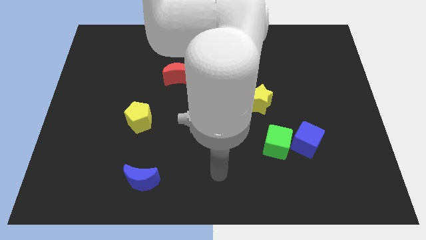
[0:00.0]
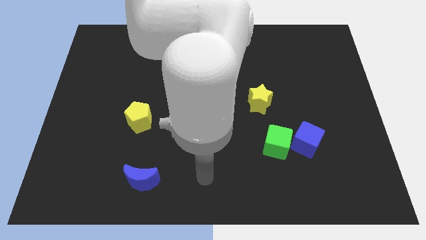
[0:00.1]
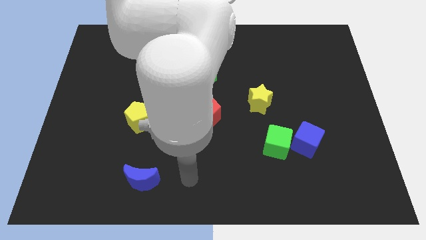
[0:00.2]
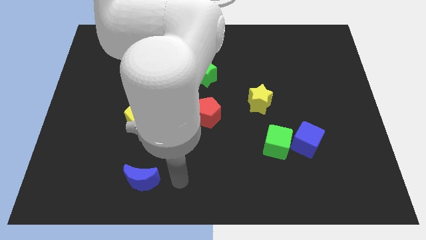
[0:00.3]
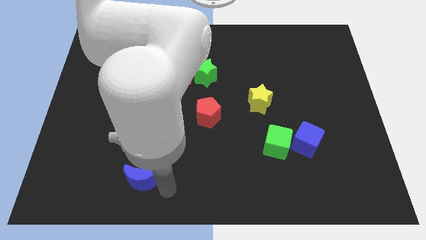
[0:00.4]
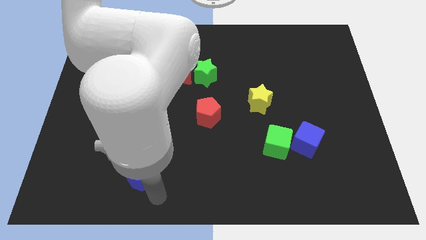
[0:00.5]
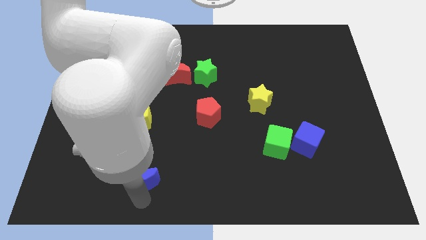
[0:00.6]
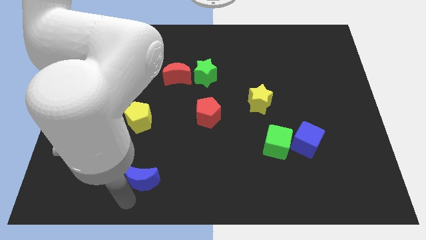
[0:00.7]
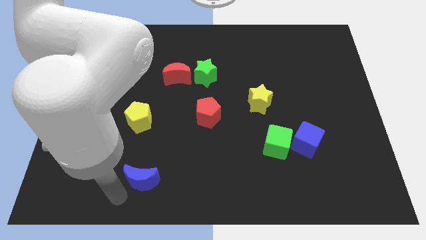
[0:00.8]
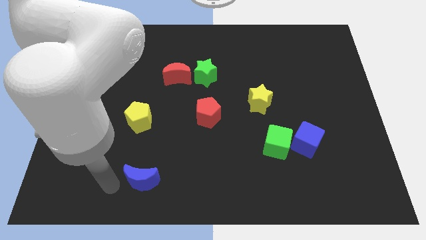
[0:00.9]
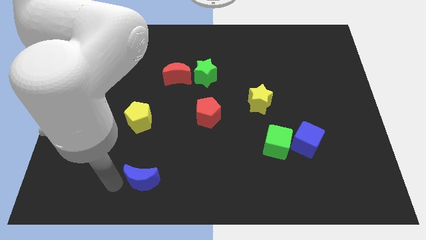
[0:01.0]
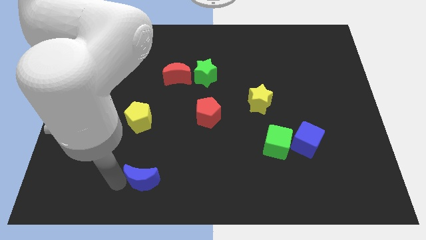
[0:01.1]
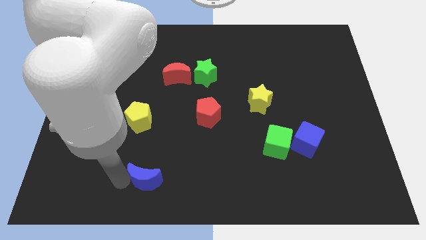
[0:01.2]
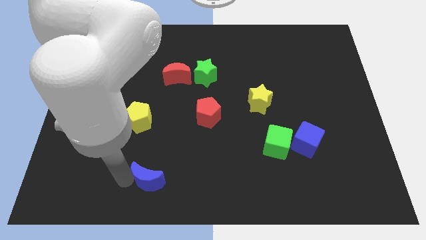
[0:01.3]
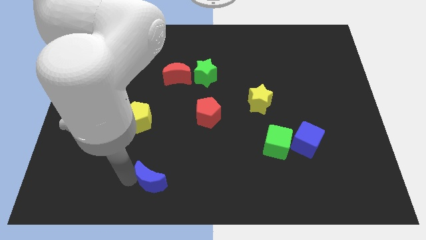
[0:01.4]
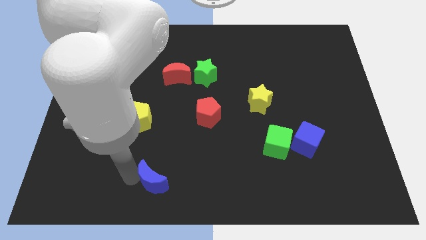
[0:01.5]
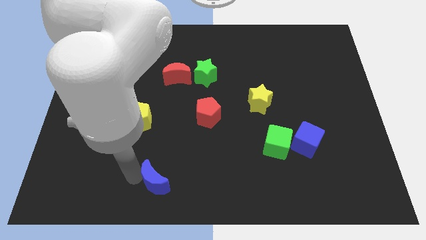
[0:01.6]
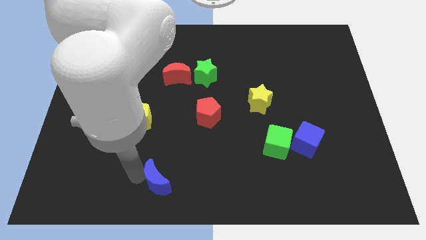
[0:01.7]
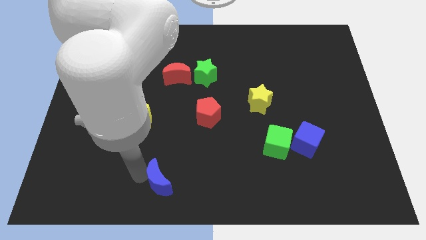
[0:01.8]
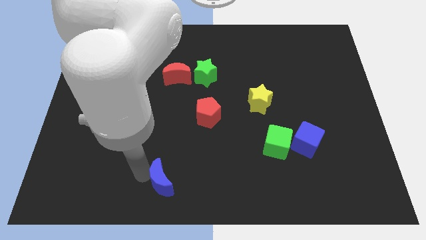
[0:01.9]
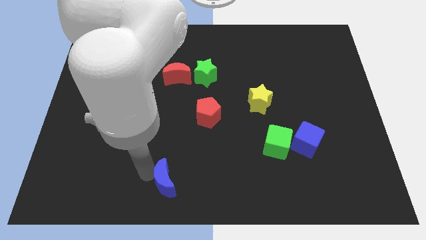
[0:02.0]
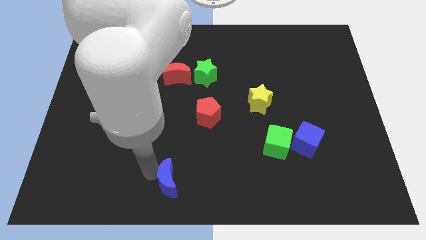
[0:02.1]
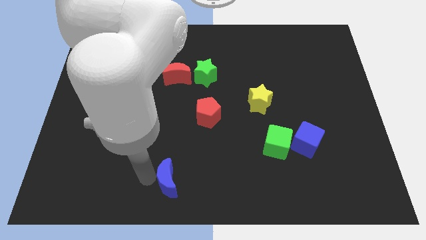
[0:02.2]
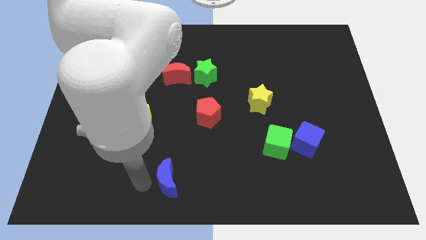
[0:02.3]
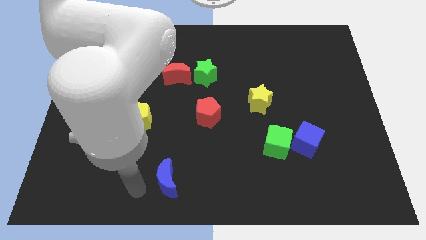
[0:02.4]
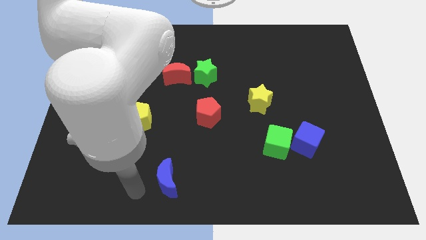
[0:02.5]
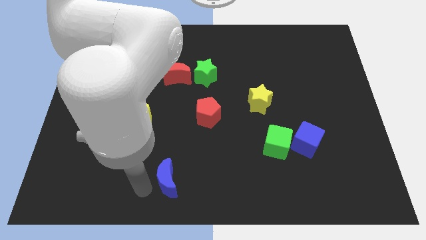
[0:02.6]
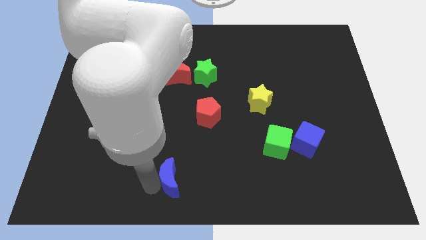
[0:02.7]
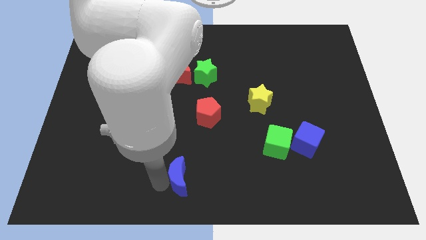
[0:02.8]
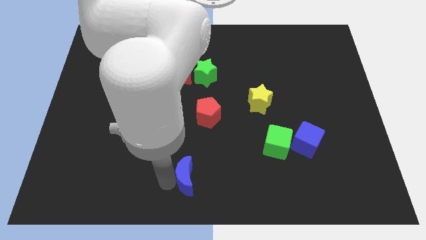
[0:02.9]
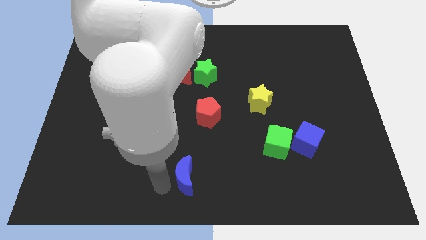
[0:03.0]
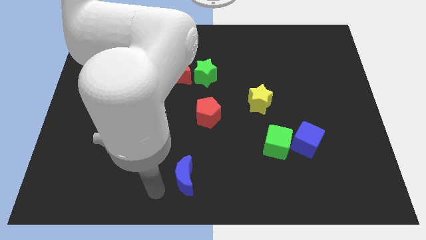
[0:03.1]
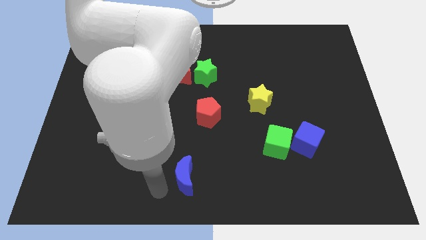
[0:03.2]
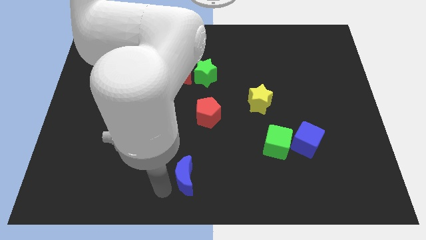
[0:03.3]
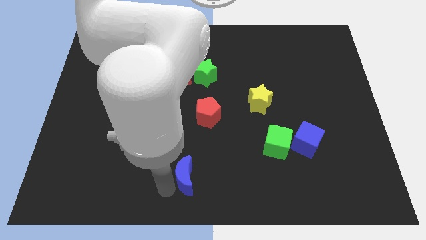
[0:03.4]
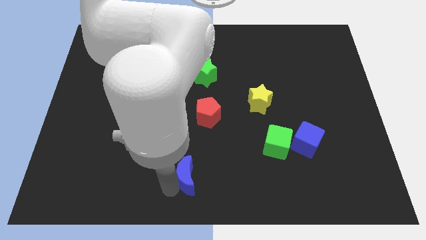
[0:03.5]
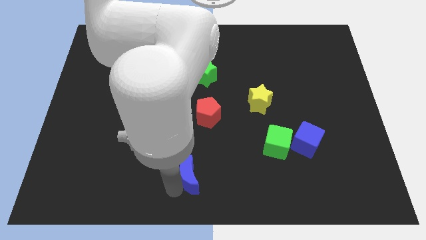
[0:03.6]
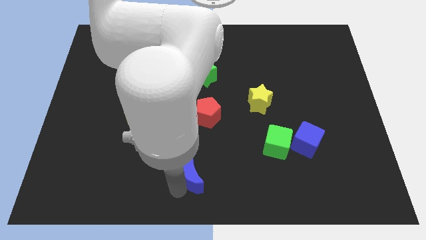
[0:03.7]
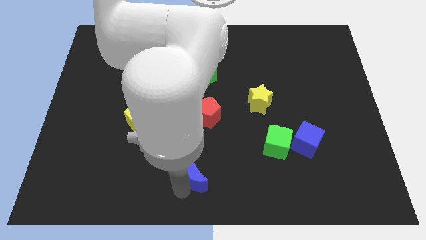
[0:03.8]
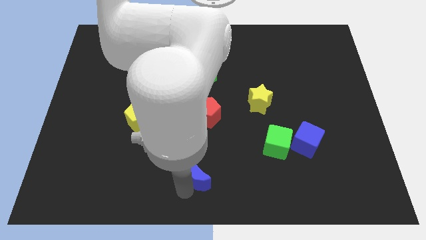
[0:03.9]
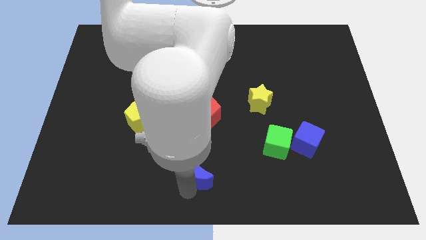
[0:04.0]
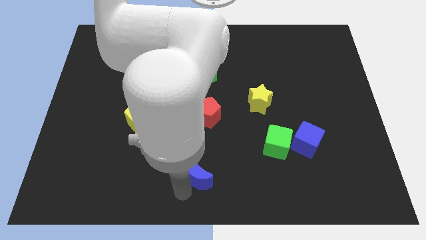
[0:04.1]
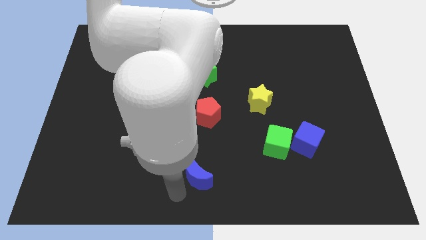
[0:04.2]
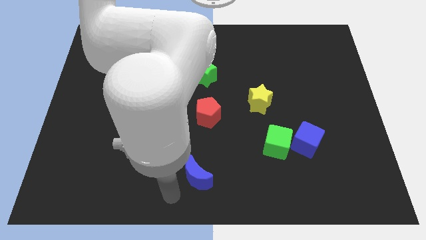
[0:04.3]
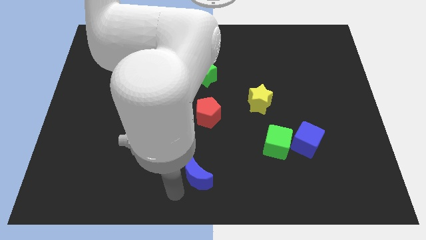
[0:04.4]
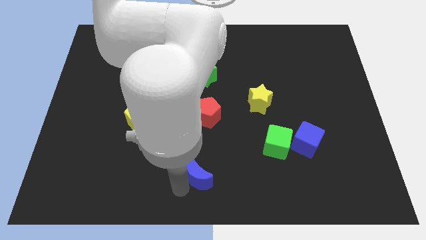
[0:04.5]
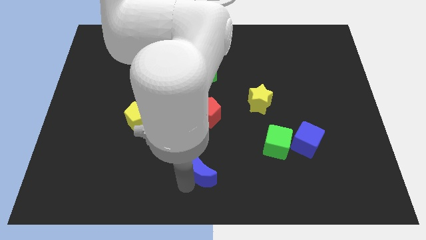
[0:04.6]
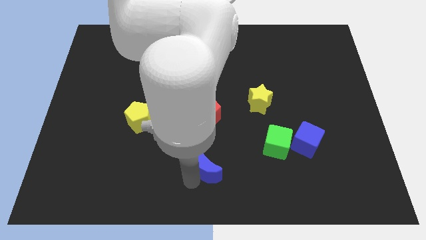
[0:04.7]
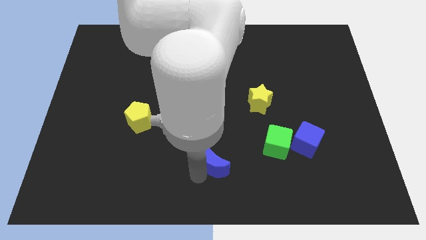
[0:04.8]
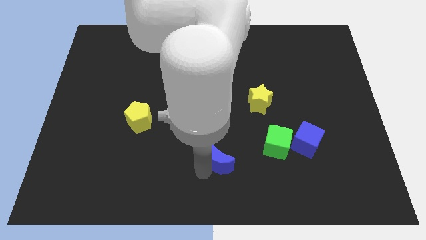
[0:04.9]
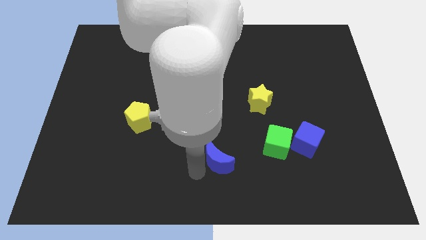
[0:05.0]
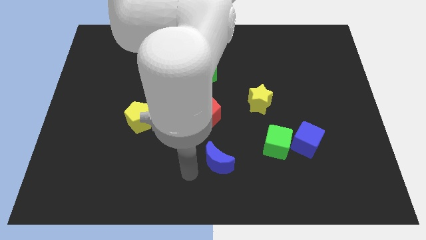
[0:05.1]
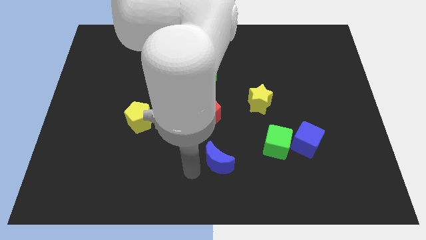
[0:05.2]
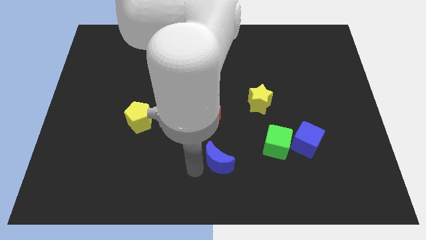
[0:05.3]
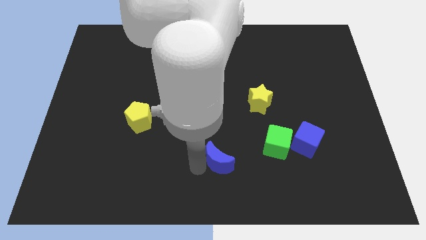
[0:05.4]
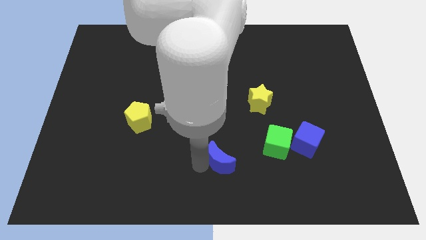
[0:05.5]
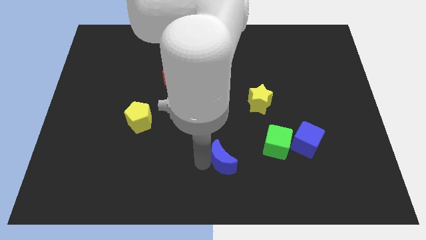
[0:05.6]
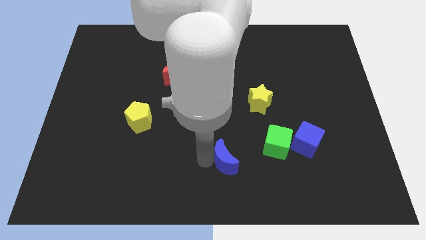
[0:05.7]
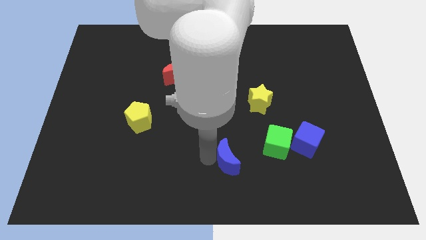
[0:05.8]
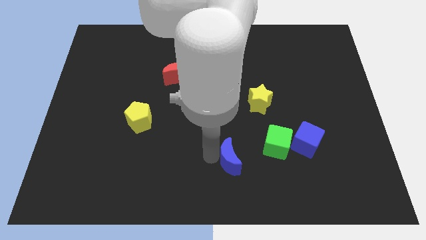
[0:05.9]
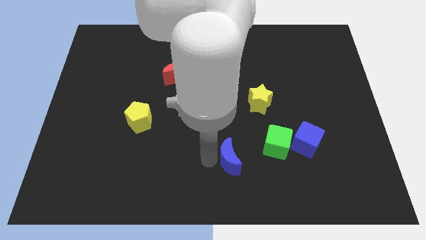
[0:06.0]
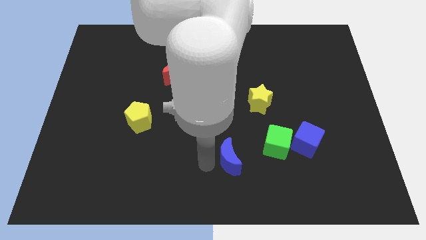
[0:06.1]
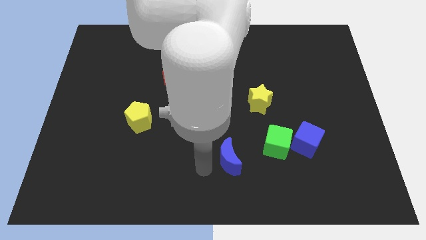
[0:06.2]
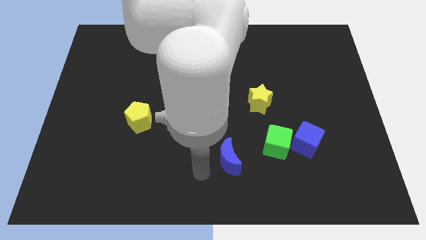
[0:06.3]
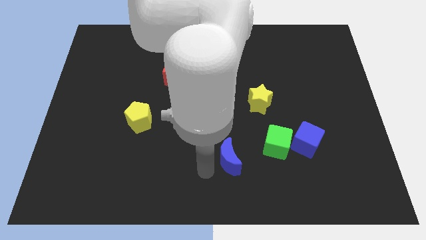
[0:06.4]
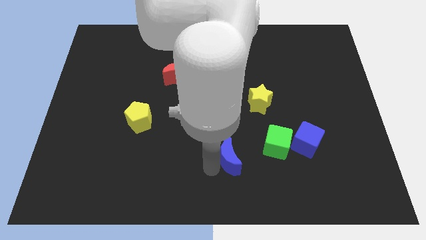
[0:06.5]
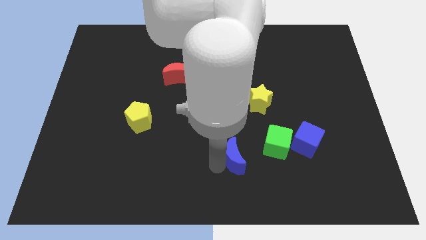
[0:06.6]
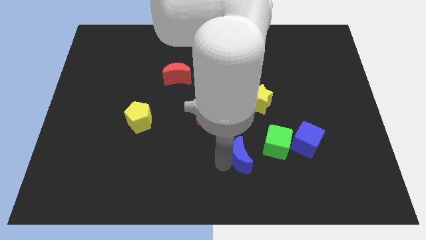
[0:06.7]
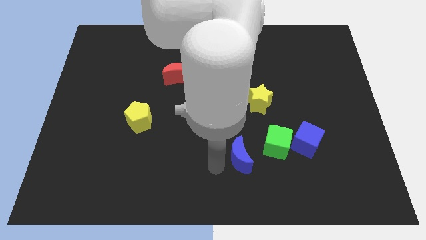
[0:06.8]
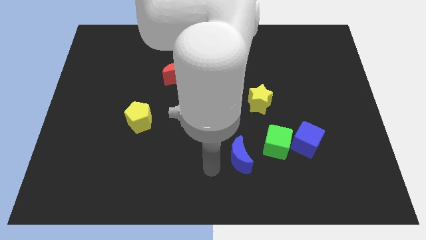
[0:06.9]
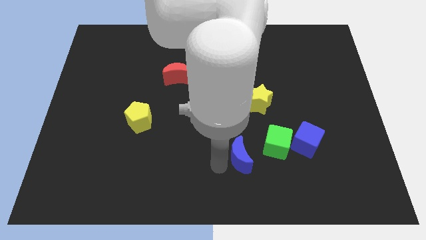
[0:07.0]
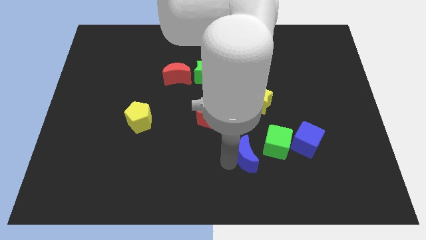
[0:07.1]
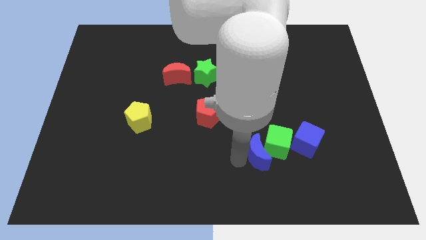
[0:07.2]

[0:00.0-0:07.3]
push the blue moon towards the green cube
